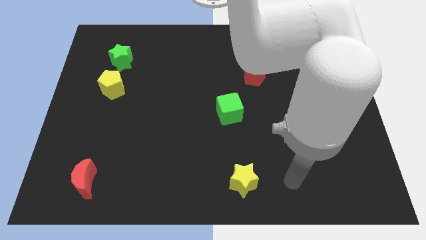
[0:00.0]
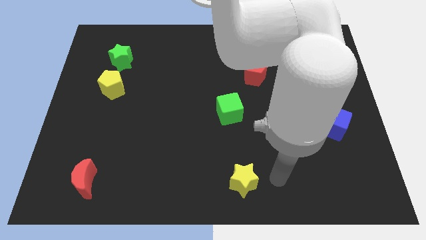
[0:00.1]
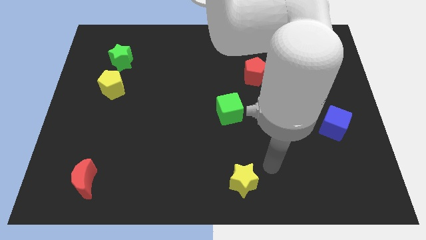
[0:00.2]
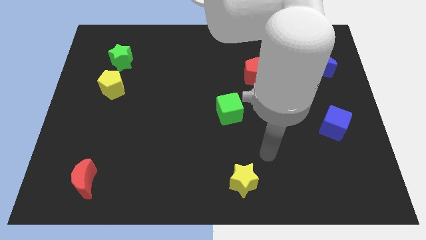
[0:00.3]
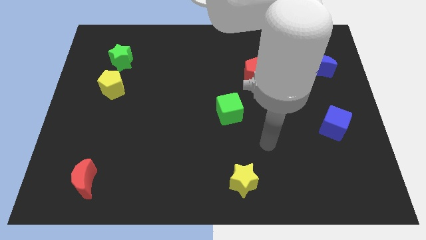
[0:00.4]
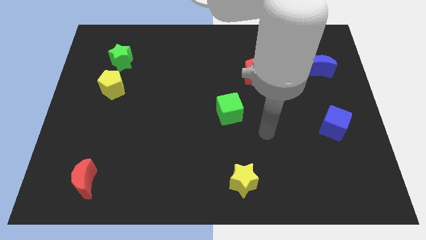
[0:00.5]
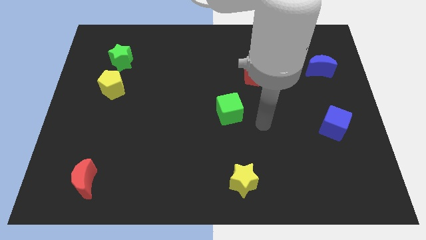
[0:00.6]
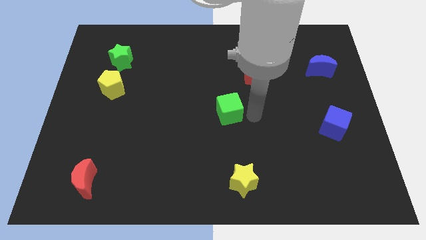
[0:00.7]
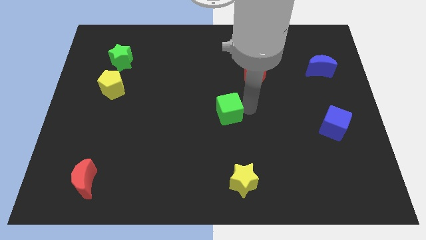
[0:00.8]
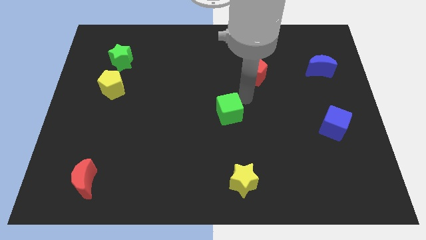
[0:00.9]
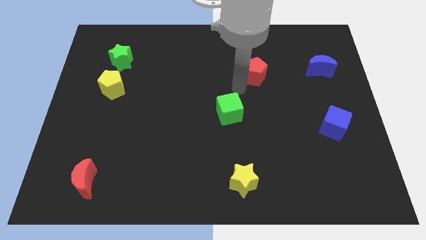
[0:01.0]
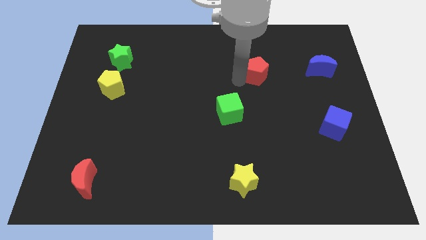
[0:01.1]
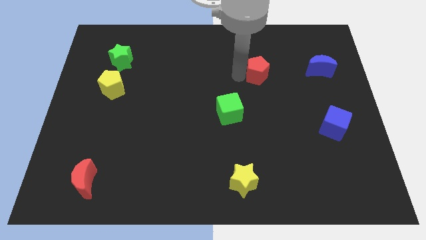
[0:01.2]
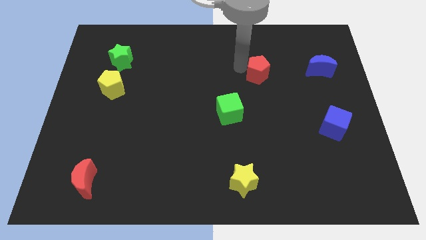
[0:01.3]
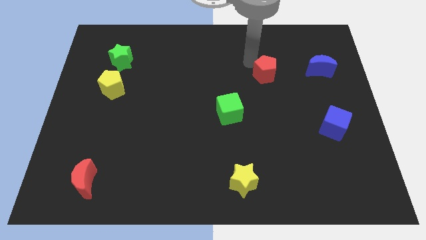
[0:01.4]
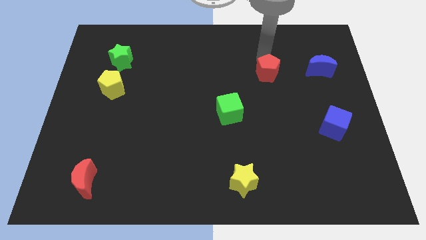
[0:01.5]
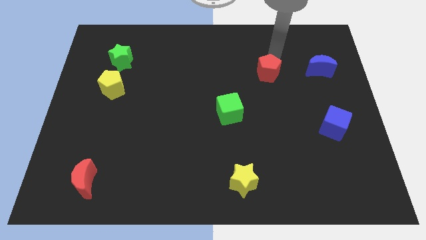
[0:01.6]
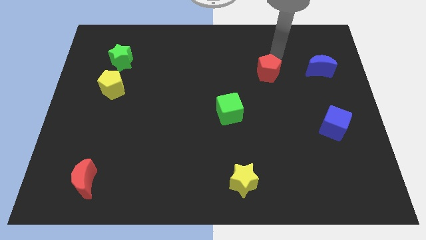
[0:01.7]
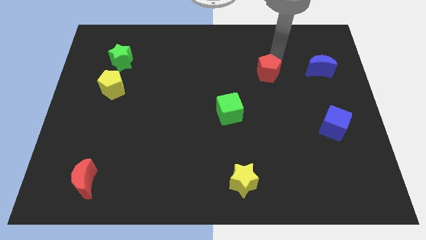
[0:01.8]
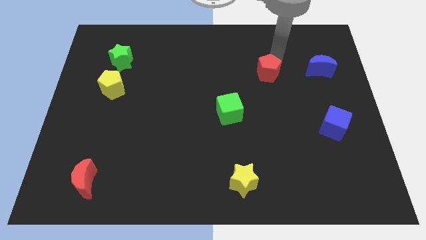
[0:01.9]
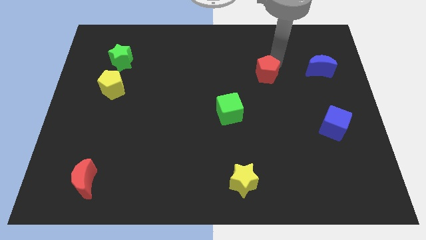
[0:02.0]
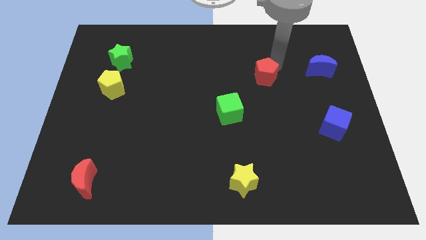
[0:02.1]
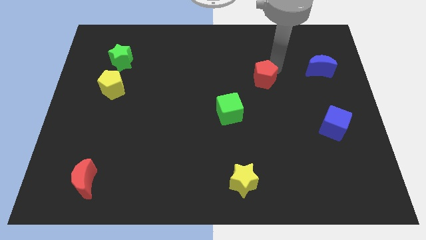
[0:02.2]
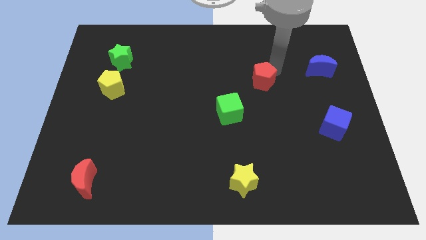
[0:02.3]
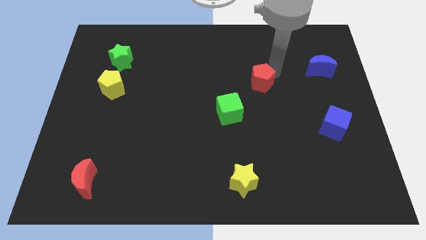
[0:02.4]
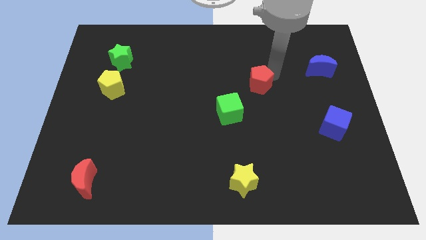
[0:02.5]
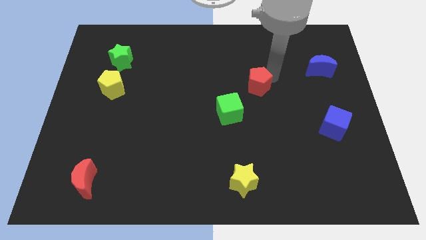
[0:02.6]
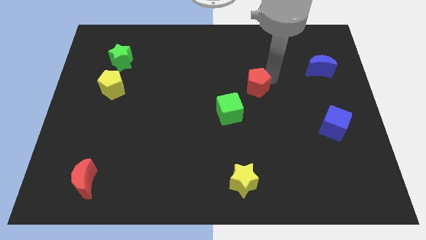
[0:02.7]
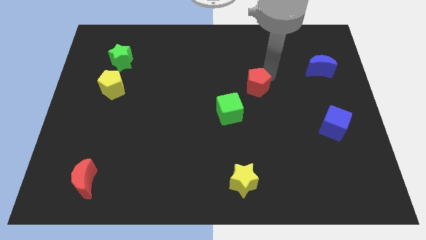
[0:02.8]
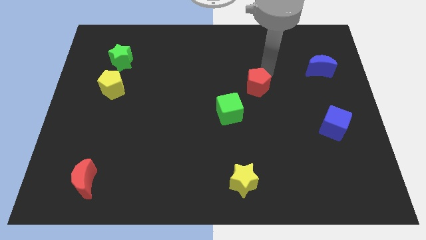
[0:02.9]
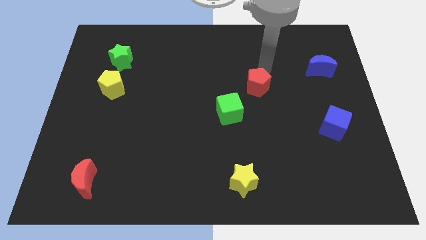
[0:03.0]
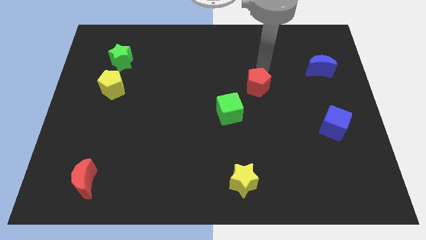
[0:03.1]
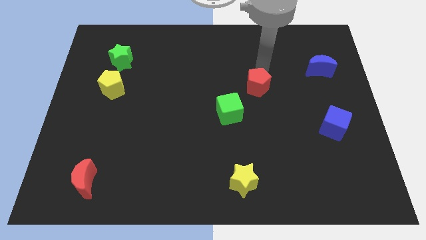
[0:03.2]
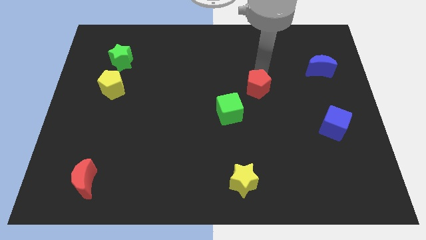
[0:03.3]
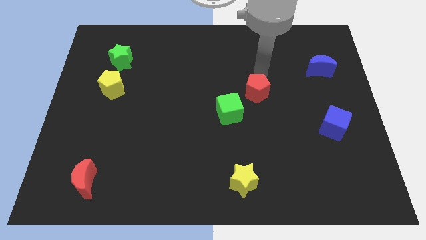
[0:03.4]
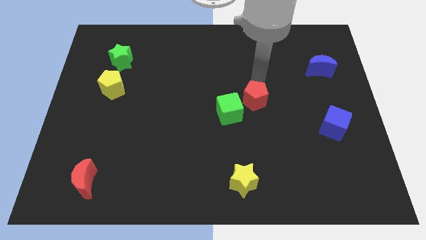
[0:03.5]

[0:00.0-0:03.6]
push the red pentagon down slightly

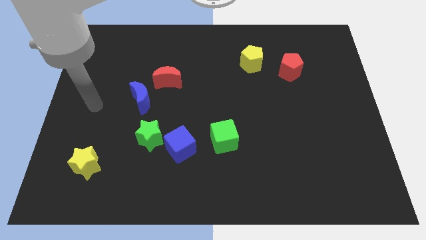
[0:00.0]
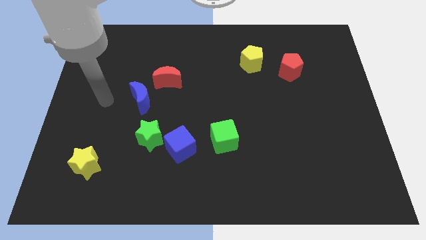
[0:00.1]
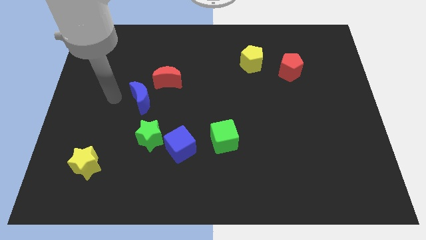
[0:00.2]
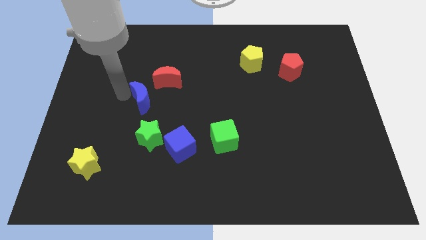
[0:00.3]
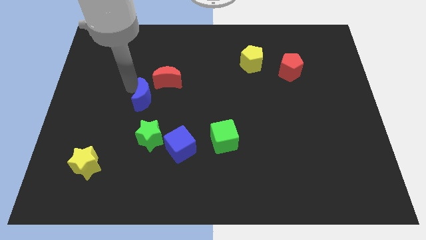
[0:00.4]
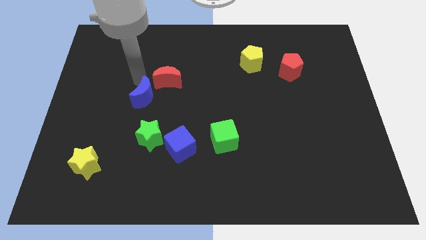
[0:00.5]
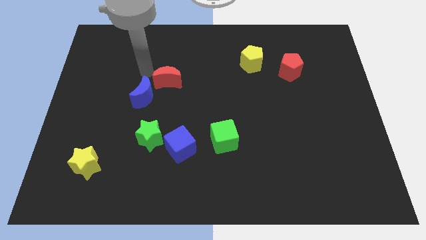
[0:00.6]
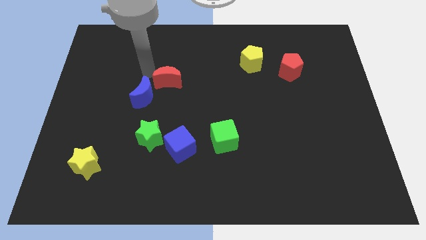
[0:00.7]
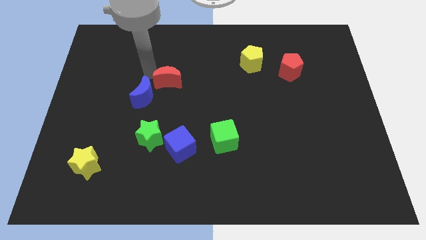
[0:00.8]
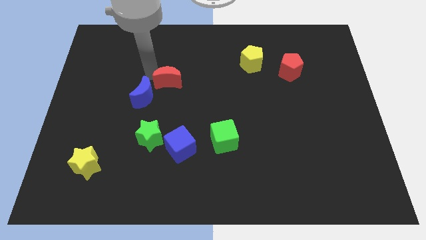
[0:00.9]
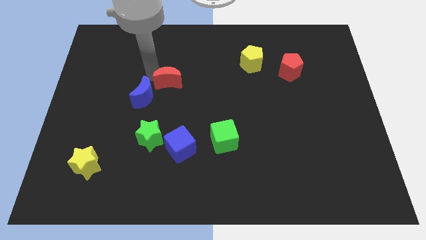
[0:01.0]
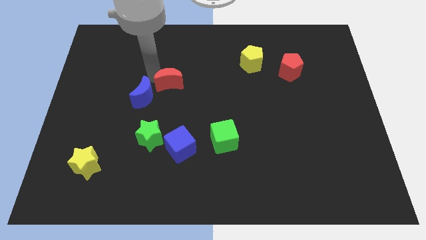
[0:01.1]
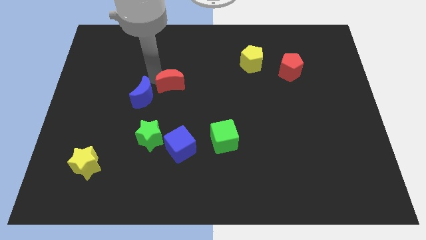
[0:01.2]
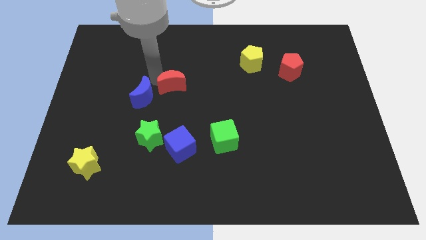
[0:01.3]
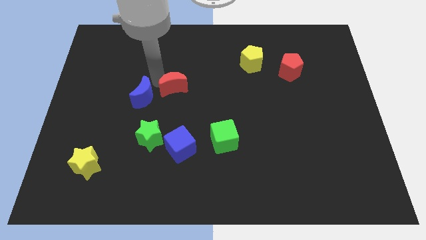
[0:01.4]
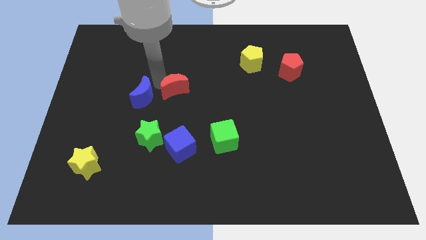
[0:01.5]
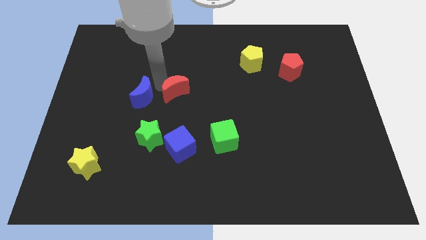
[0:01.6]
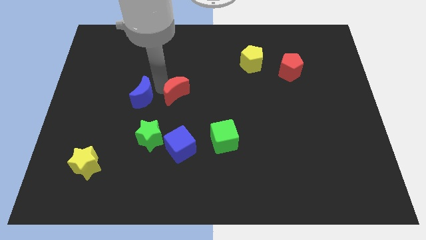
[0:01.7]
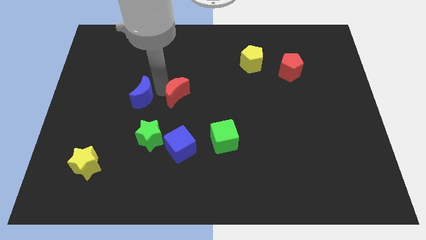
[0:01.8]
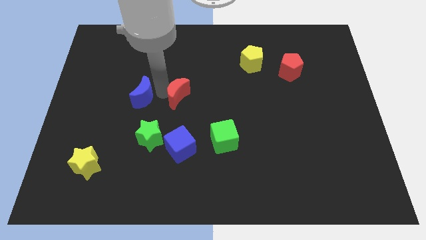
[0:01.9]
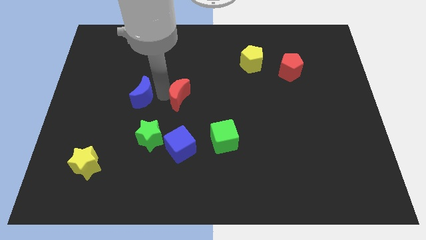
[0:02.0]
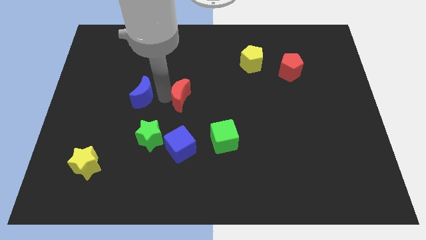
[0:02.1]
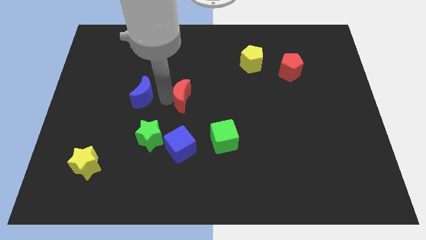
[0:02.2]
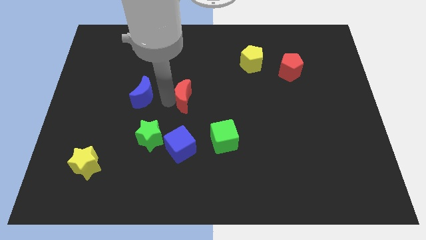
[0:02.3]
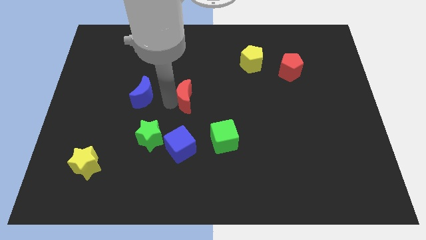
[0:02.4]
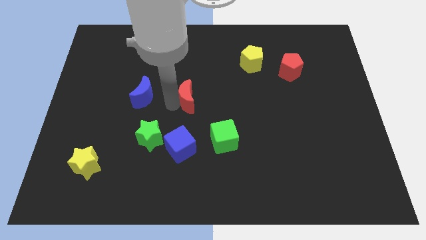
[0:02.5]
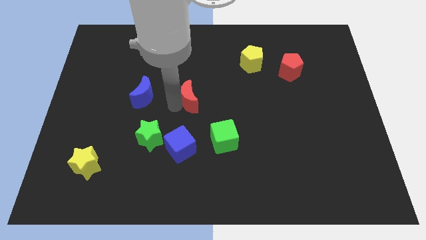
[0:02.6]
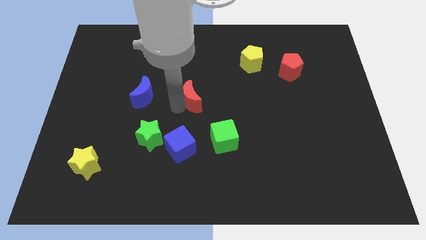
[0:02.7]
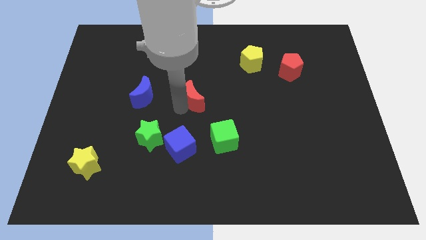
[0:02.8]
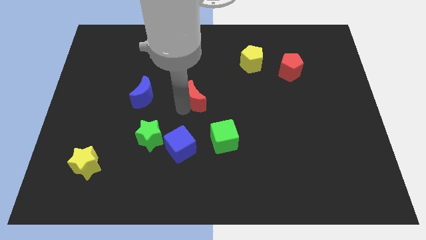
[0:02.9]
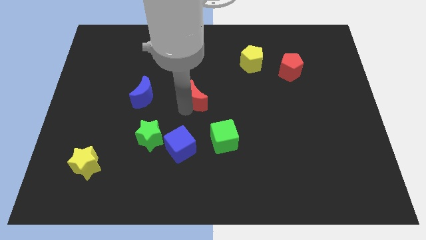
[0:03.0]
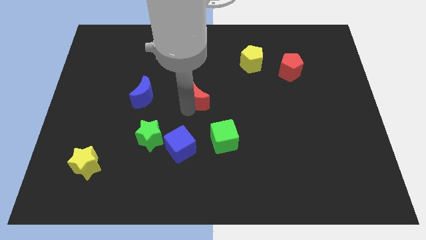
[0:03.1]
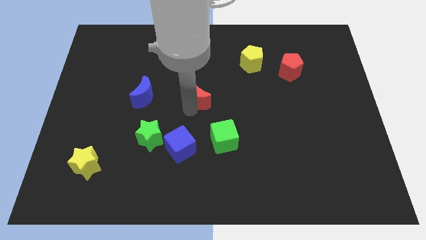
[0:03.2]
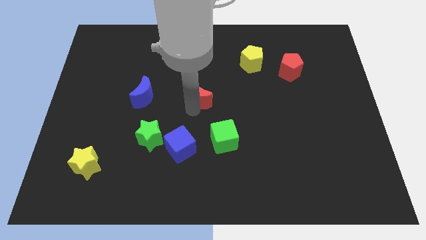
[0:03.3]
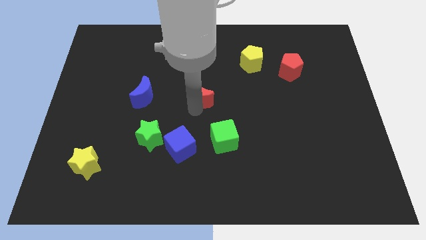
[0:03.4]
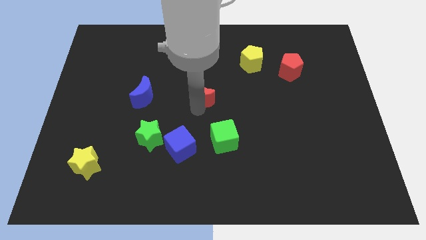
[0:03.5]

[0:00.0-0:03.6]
slightly move the red moon to the right

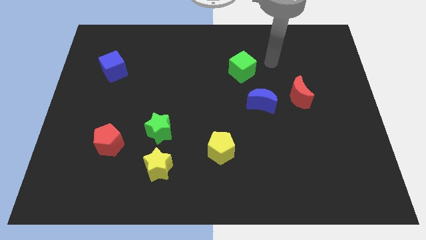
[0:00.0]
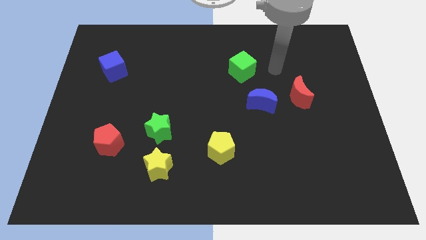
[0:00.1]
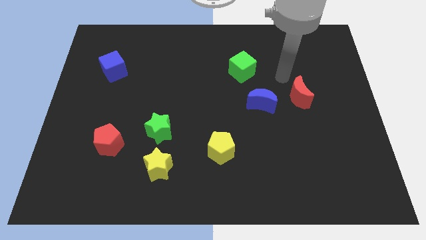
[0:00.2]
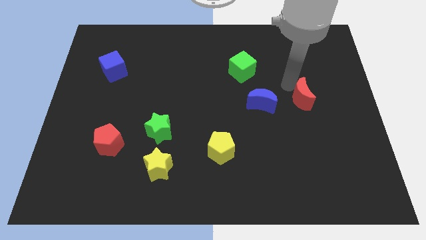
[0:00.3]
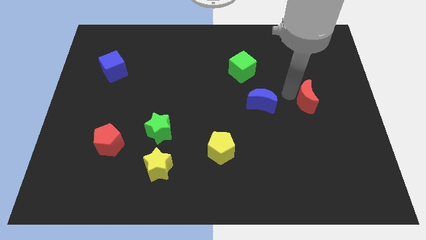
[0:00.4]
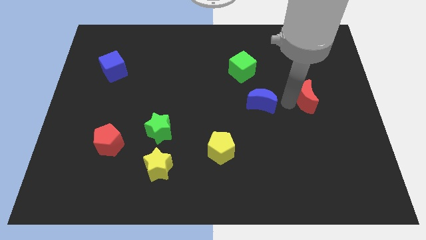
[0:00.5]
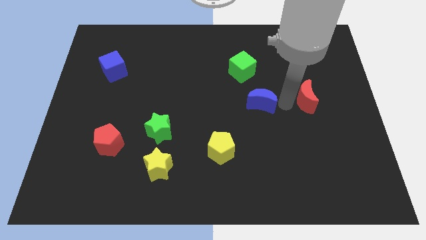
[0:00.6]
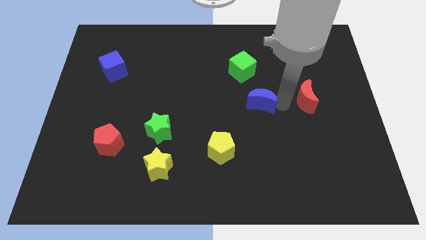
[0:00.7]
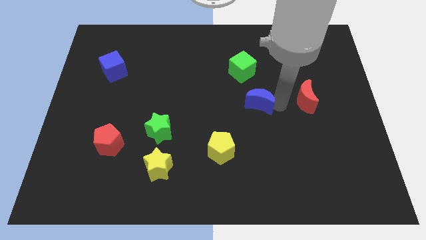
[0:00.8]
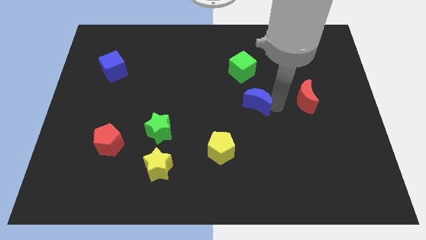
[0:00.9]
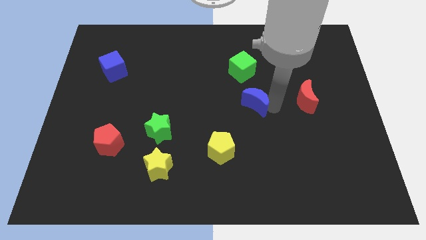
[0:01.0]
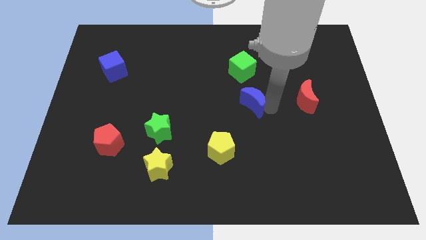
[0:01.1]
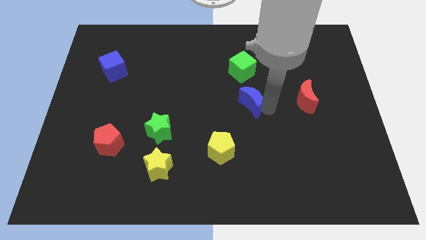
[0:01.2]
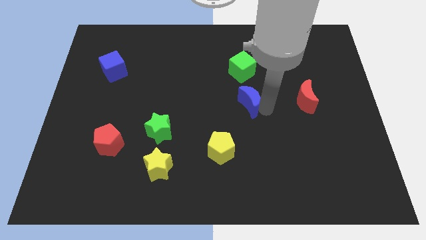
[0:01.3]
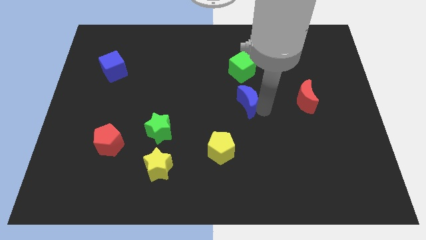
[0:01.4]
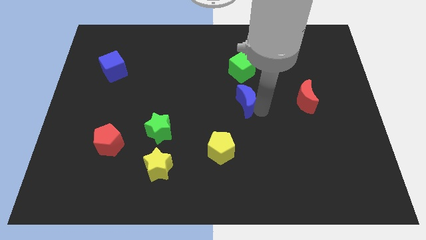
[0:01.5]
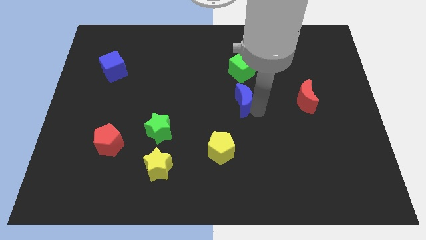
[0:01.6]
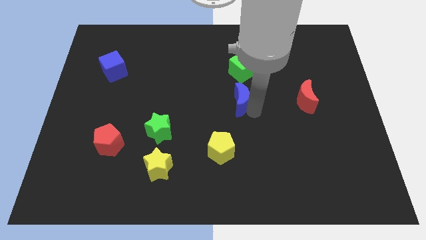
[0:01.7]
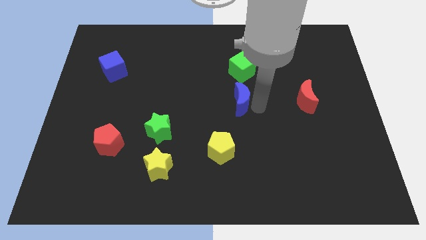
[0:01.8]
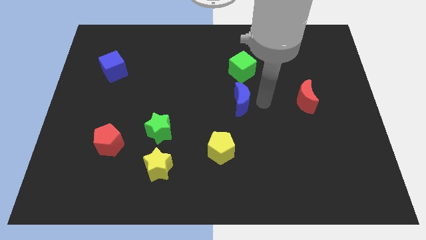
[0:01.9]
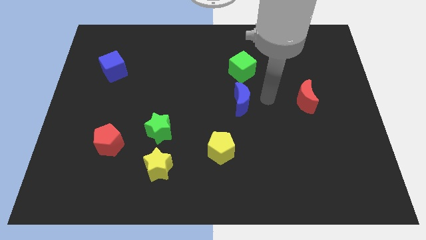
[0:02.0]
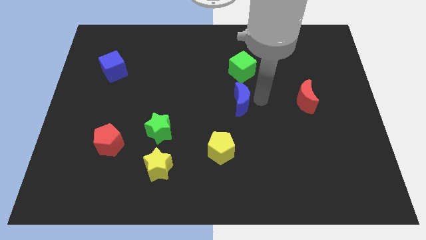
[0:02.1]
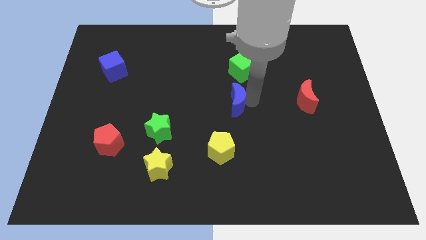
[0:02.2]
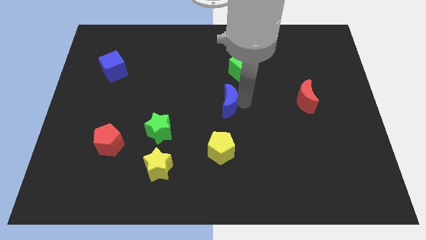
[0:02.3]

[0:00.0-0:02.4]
slightly push the blue moon left
